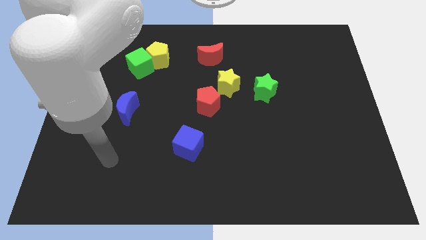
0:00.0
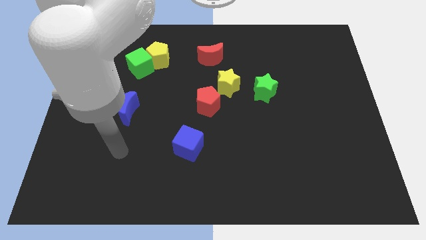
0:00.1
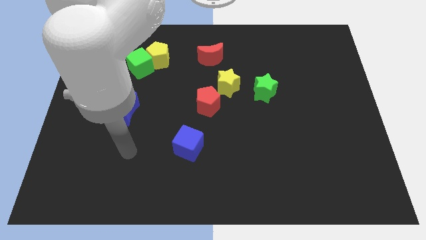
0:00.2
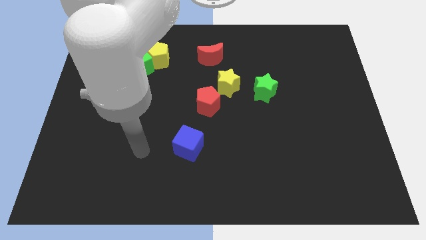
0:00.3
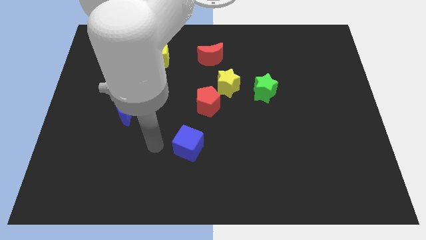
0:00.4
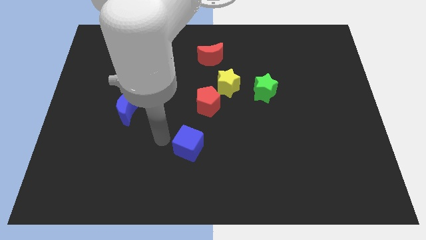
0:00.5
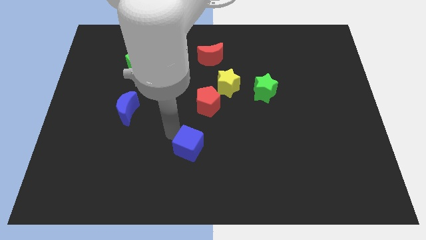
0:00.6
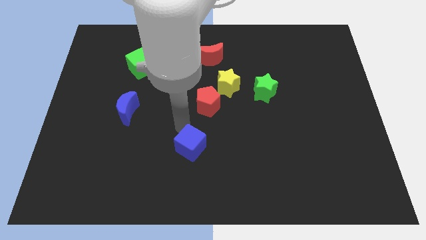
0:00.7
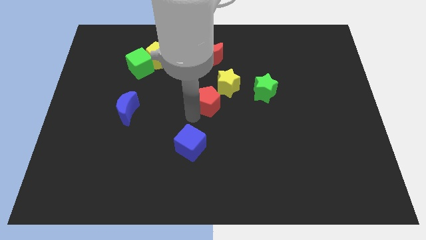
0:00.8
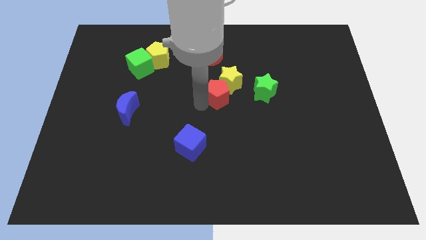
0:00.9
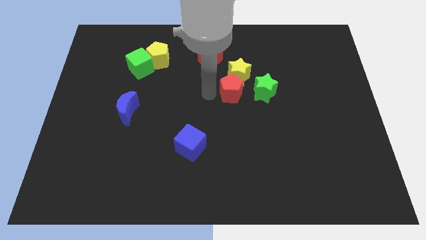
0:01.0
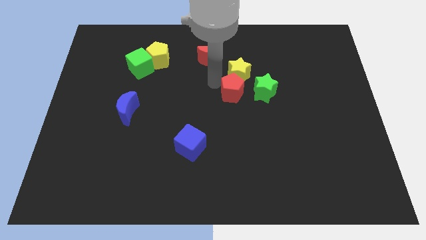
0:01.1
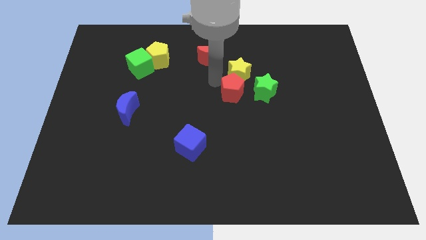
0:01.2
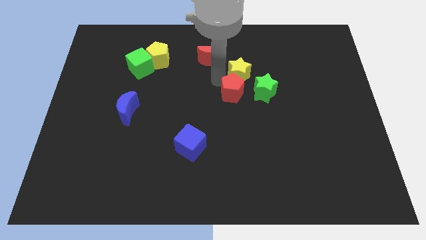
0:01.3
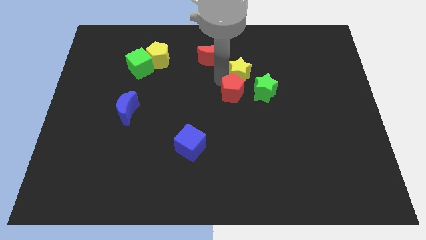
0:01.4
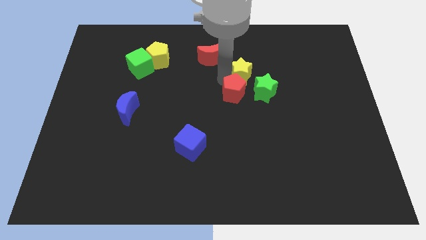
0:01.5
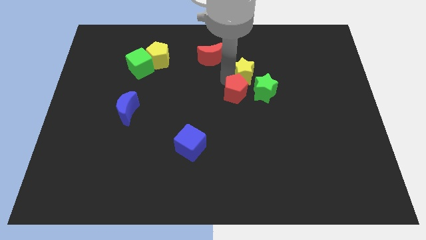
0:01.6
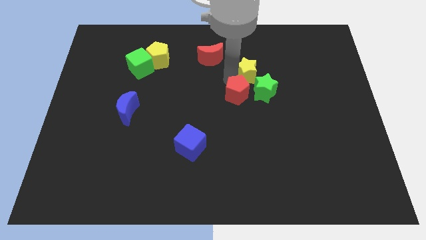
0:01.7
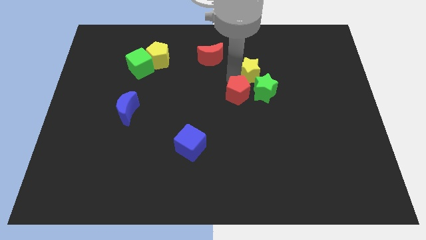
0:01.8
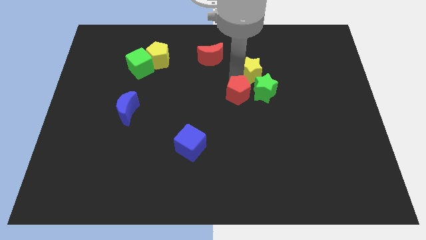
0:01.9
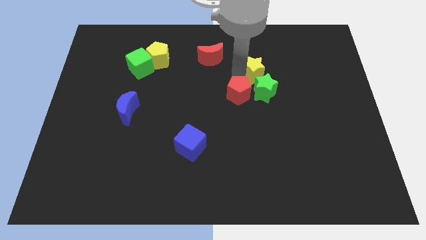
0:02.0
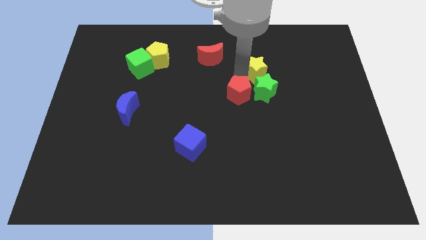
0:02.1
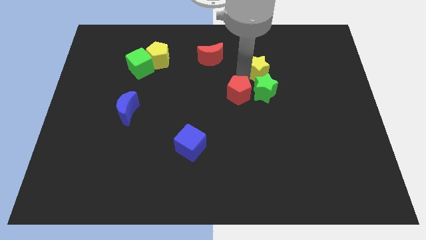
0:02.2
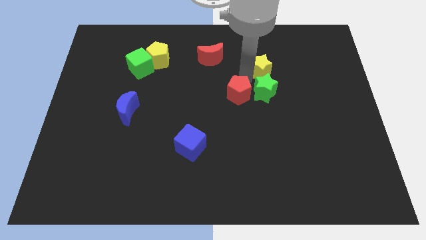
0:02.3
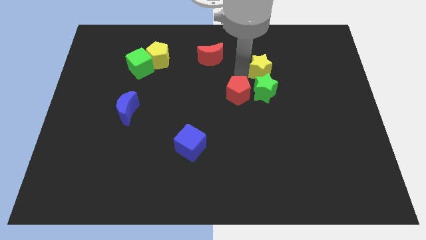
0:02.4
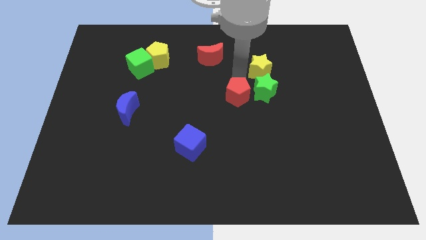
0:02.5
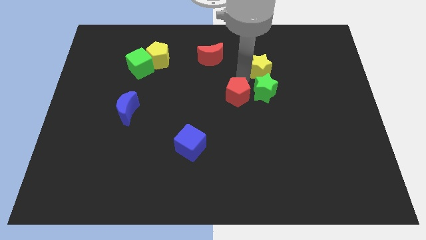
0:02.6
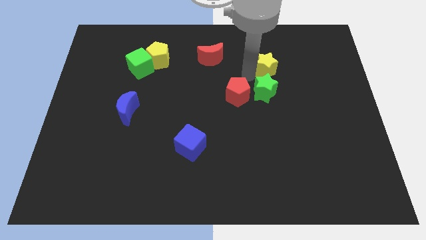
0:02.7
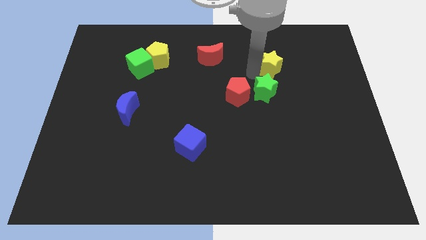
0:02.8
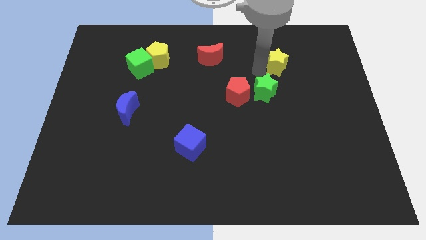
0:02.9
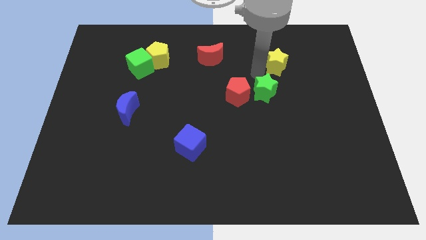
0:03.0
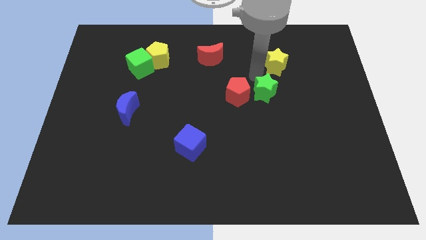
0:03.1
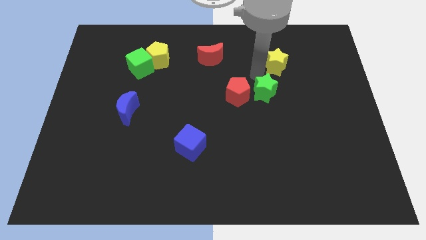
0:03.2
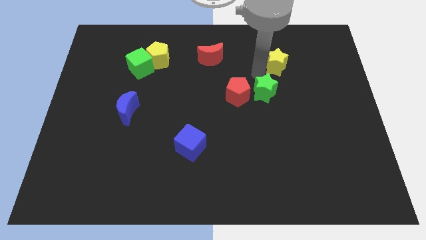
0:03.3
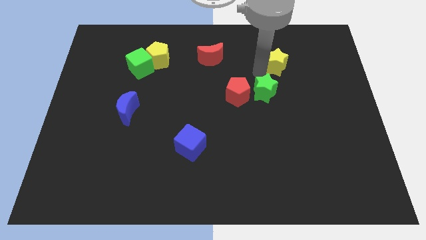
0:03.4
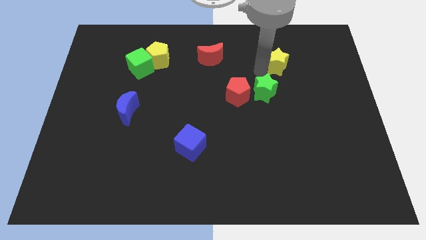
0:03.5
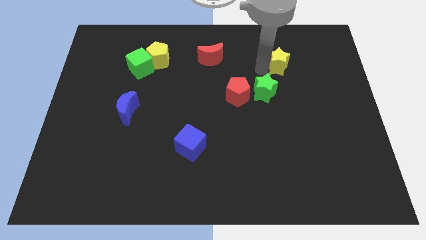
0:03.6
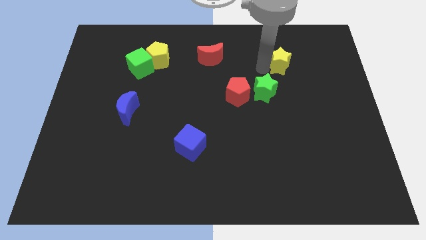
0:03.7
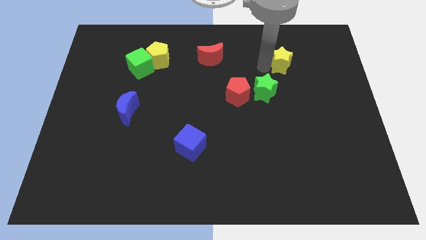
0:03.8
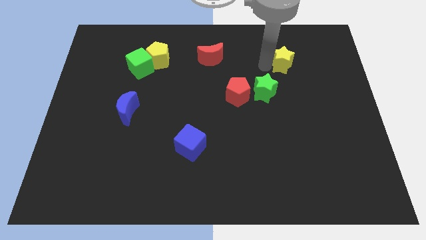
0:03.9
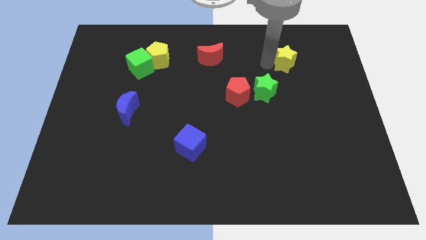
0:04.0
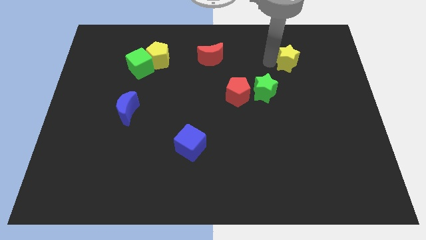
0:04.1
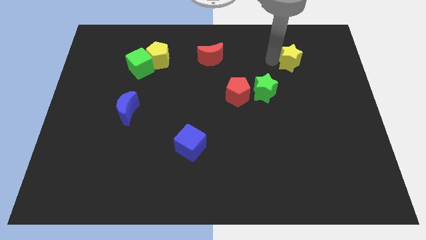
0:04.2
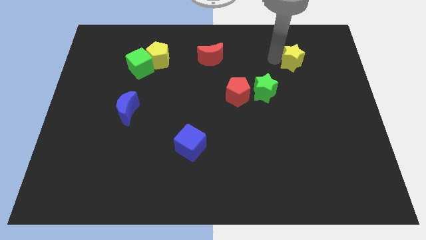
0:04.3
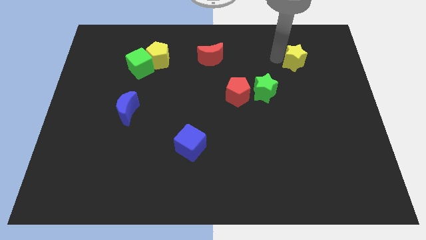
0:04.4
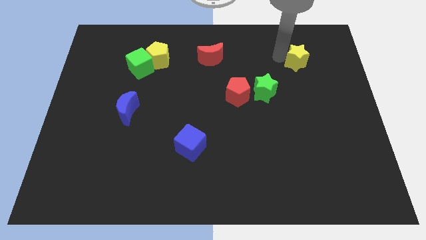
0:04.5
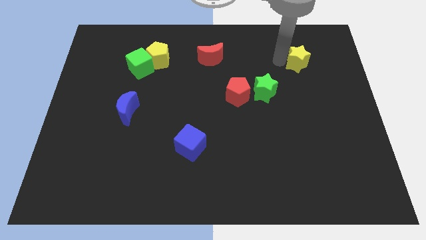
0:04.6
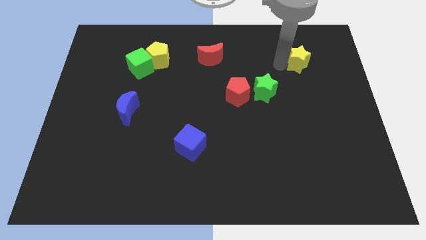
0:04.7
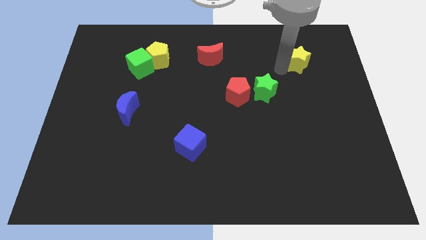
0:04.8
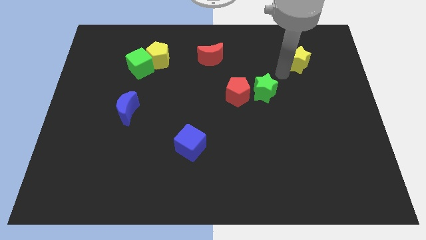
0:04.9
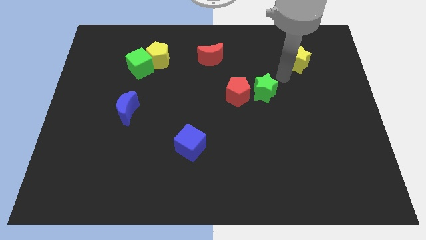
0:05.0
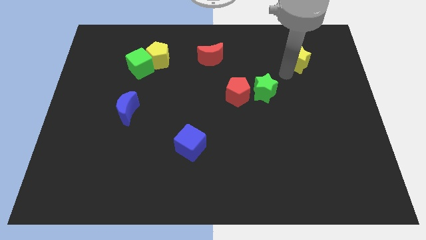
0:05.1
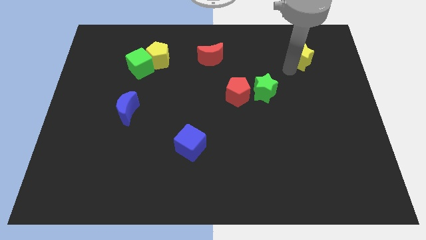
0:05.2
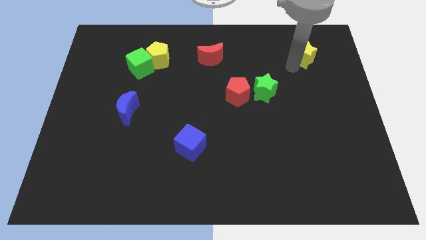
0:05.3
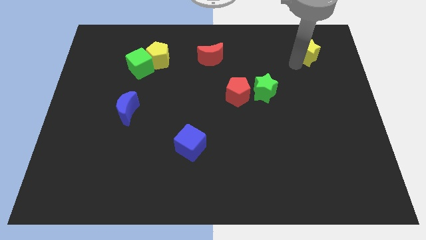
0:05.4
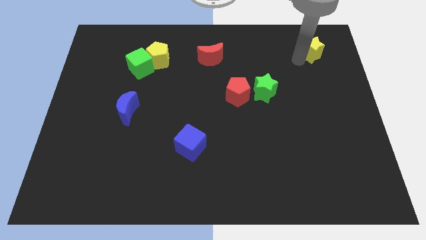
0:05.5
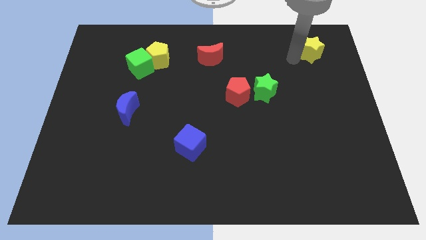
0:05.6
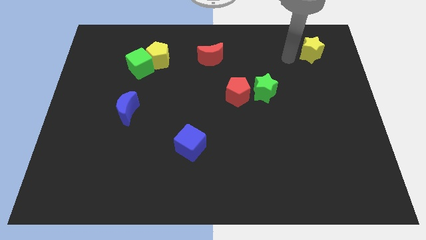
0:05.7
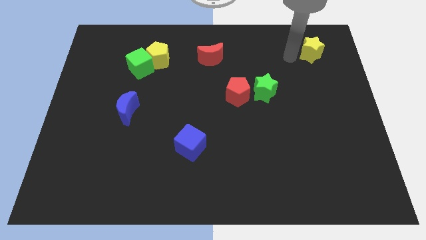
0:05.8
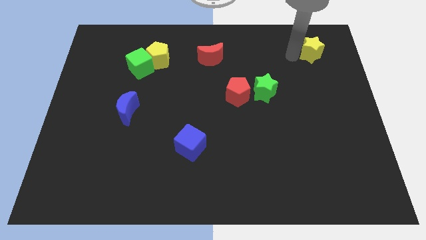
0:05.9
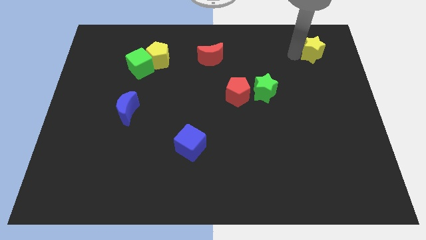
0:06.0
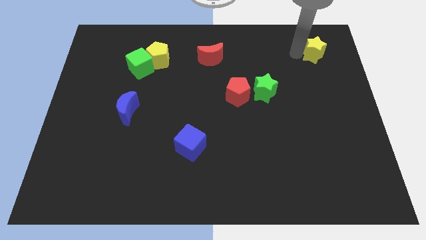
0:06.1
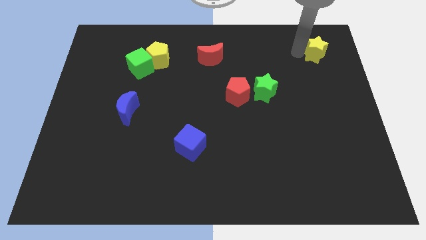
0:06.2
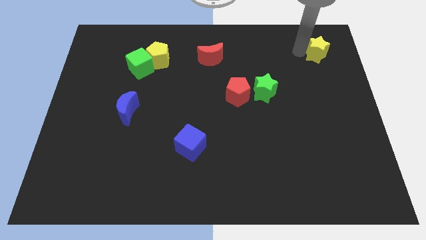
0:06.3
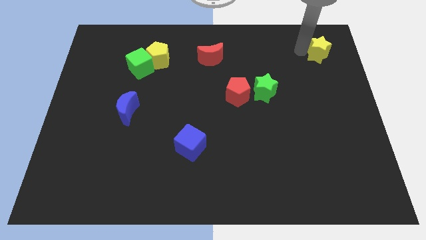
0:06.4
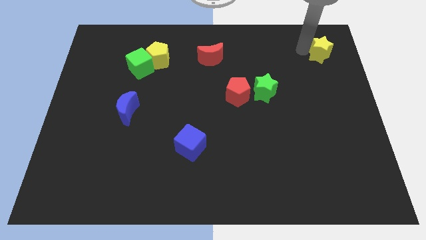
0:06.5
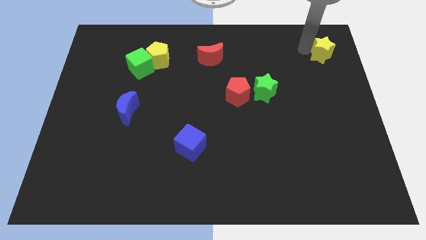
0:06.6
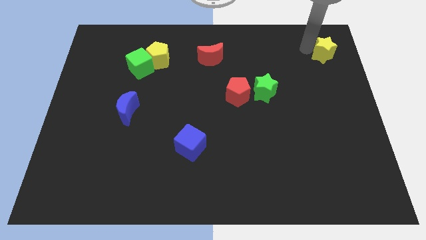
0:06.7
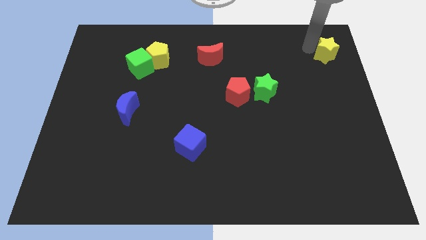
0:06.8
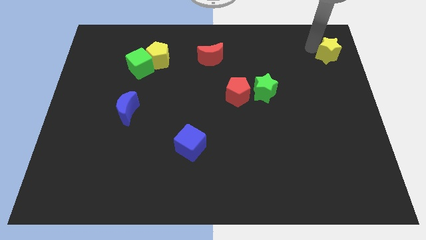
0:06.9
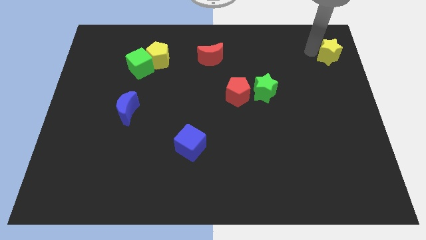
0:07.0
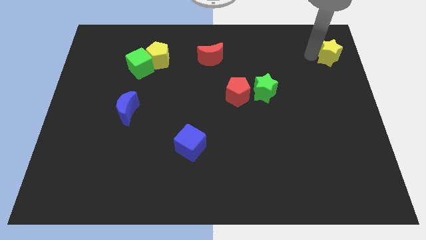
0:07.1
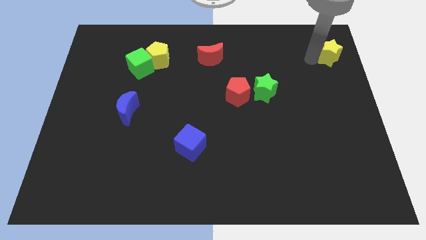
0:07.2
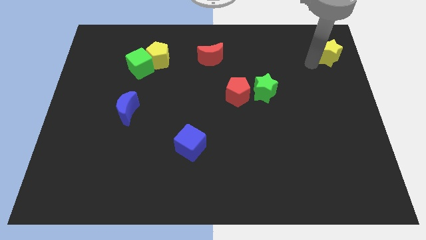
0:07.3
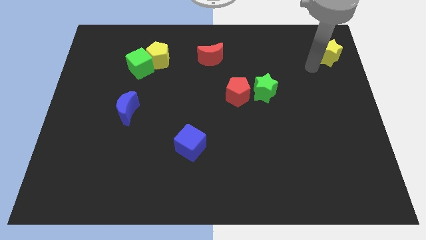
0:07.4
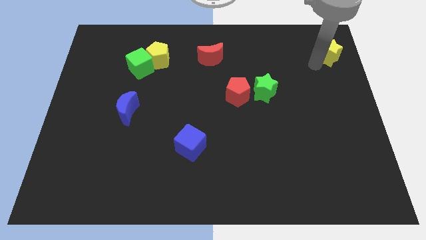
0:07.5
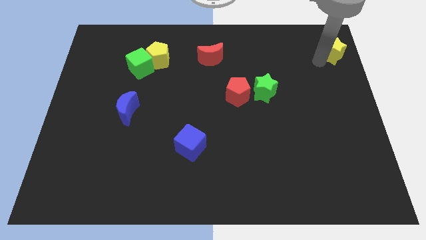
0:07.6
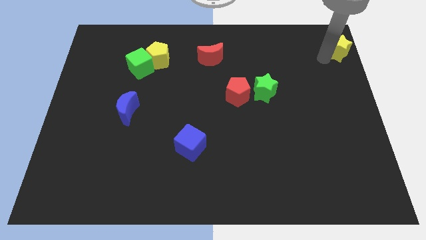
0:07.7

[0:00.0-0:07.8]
push the yellow star to the top right corner
